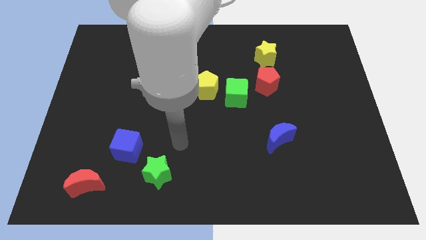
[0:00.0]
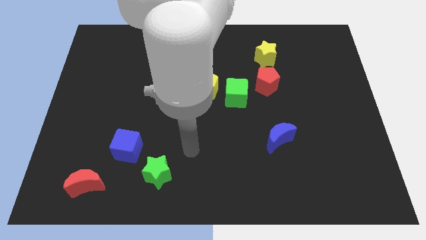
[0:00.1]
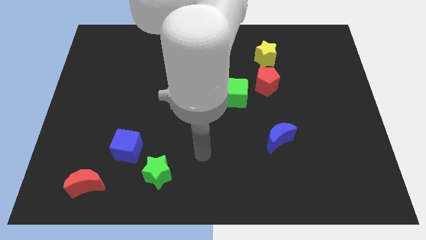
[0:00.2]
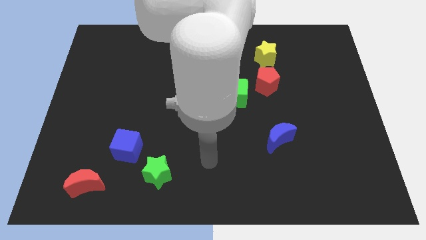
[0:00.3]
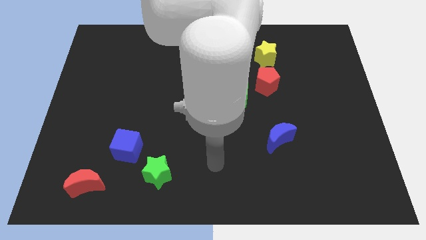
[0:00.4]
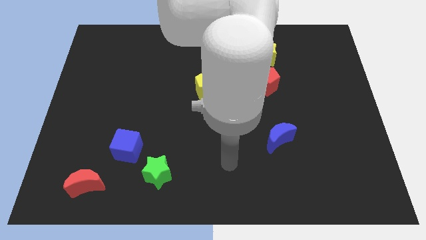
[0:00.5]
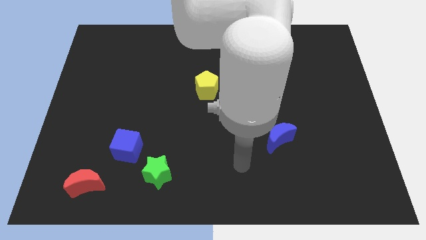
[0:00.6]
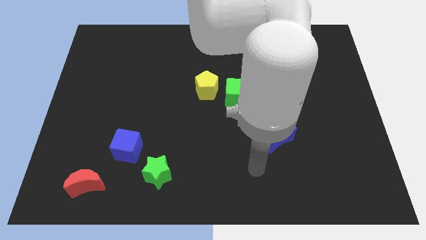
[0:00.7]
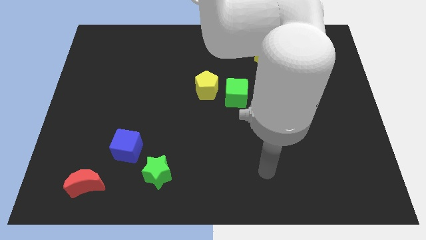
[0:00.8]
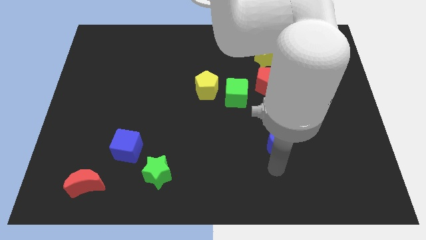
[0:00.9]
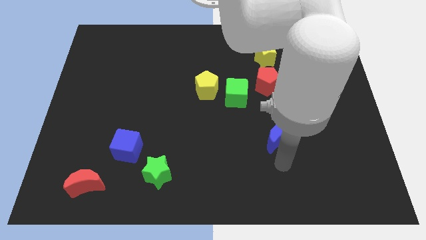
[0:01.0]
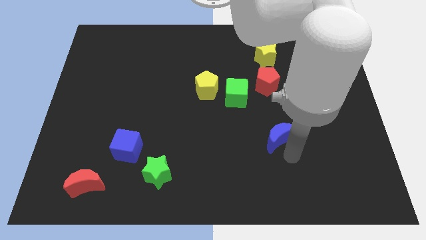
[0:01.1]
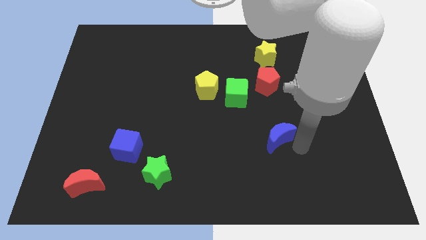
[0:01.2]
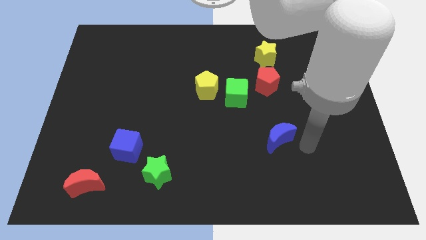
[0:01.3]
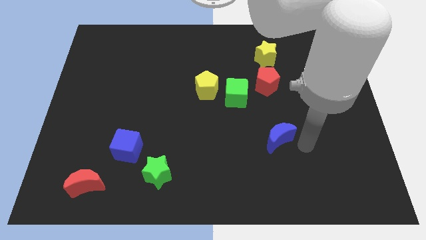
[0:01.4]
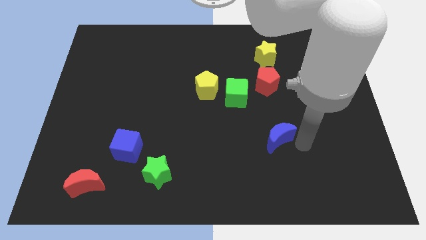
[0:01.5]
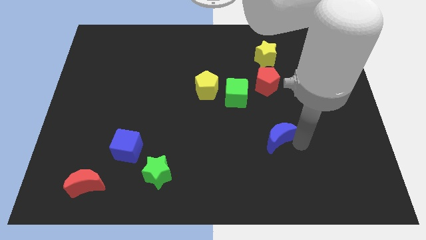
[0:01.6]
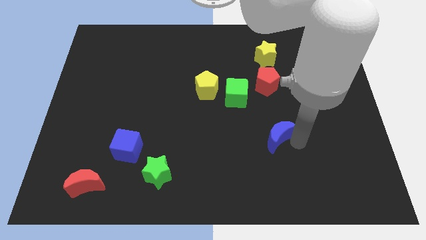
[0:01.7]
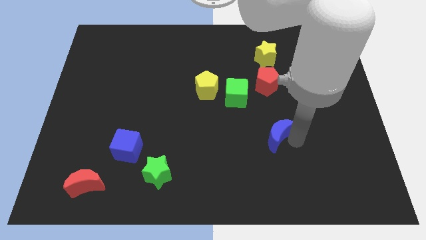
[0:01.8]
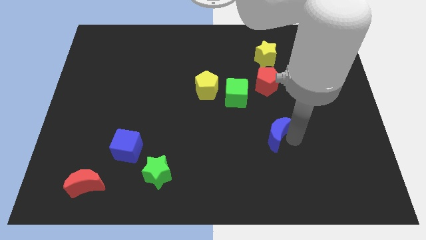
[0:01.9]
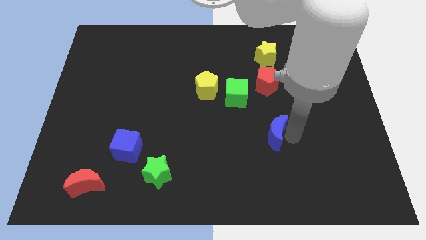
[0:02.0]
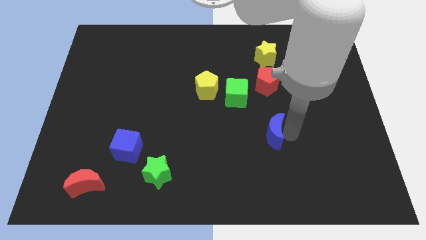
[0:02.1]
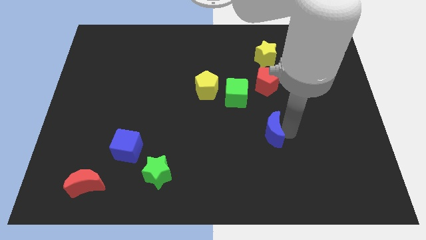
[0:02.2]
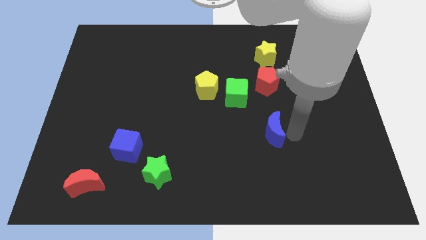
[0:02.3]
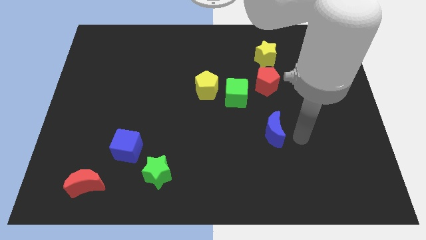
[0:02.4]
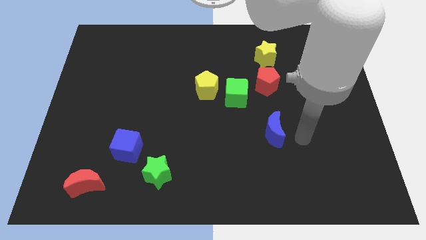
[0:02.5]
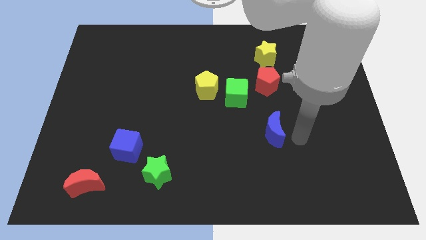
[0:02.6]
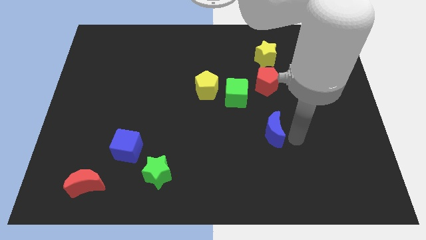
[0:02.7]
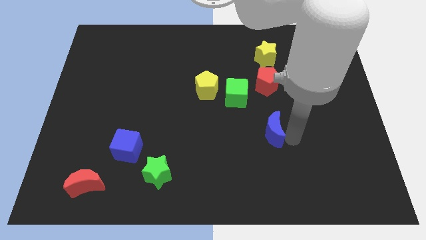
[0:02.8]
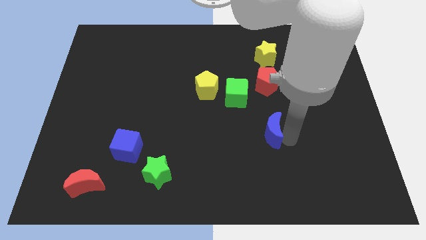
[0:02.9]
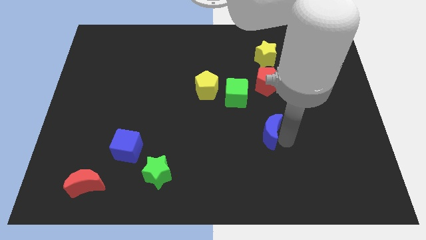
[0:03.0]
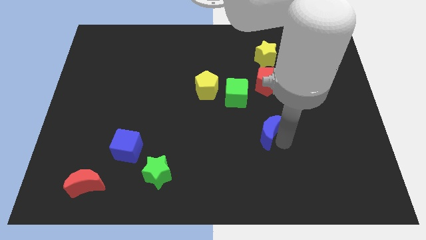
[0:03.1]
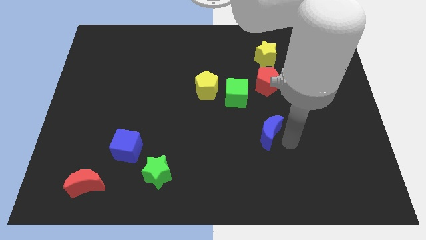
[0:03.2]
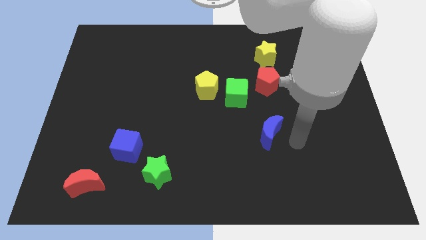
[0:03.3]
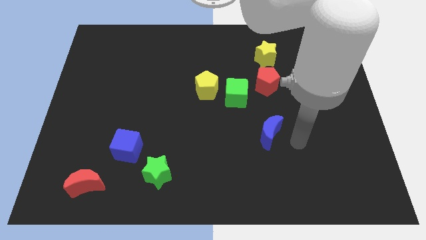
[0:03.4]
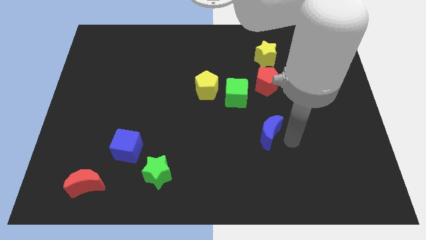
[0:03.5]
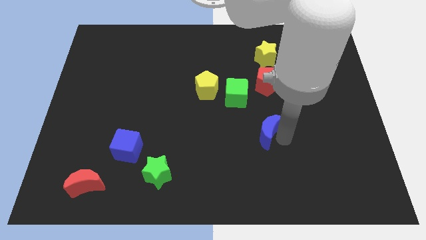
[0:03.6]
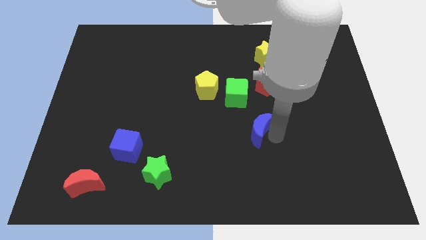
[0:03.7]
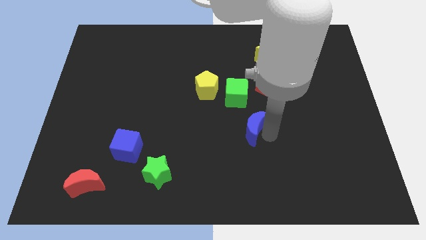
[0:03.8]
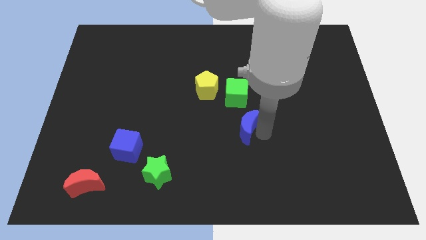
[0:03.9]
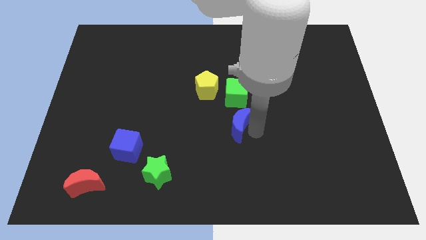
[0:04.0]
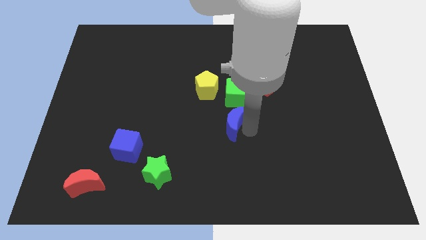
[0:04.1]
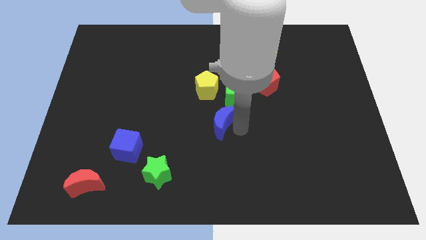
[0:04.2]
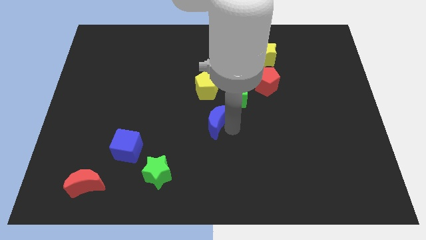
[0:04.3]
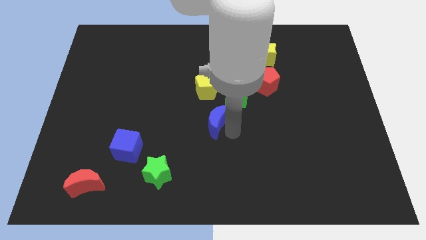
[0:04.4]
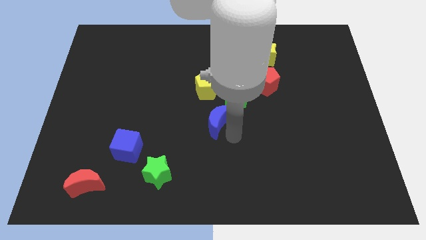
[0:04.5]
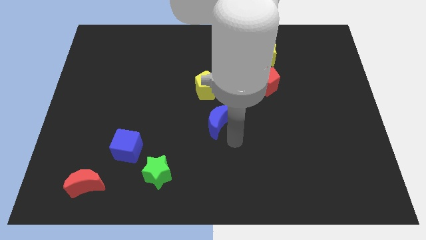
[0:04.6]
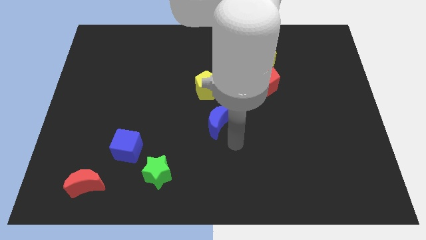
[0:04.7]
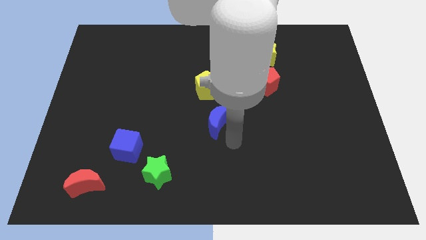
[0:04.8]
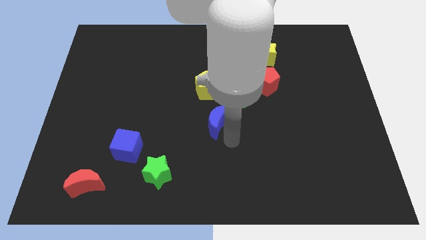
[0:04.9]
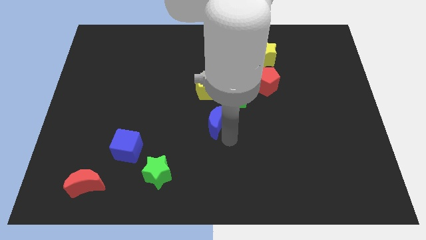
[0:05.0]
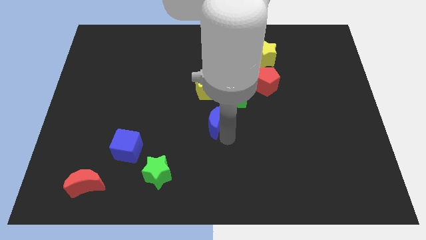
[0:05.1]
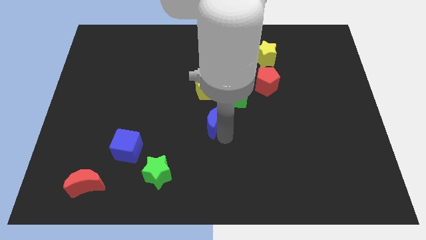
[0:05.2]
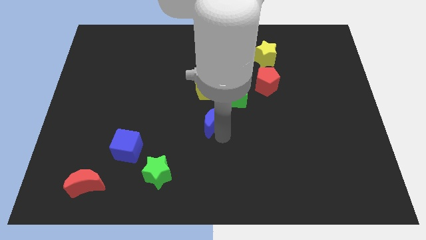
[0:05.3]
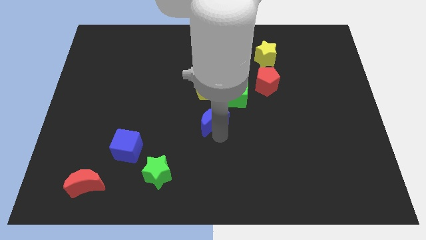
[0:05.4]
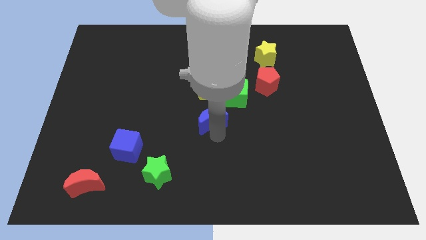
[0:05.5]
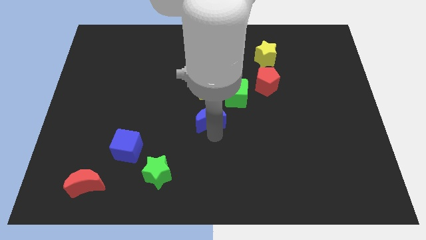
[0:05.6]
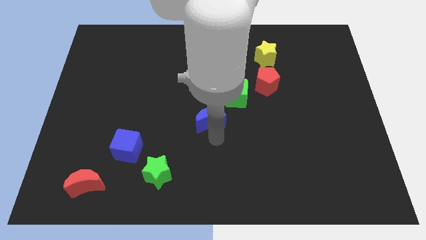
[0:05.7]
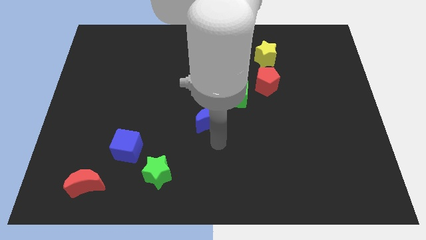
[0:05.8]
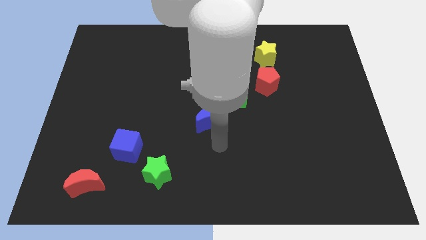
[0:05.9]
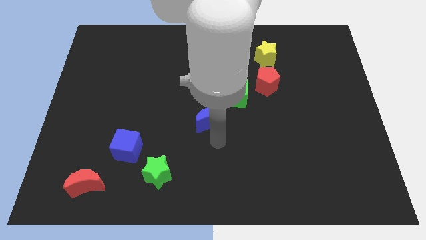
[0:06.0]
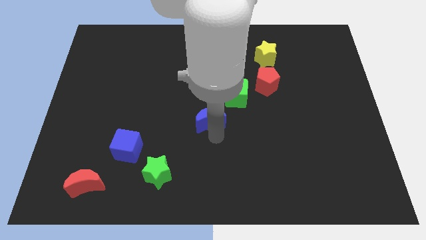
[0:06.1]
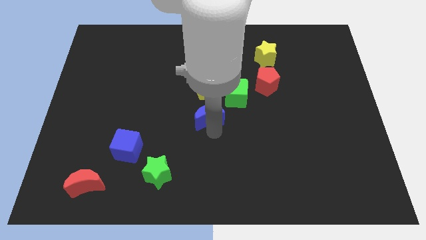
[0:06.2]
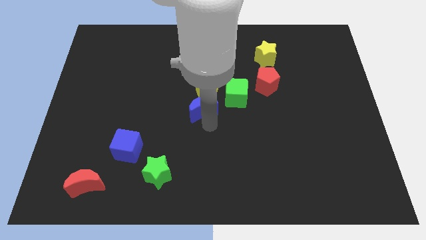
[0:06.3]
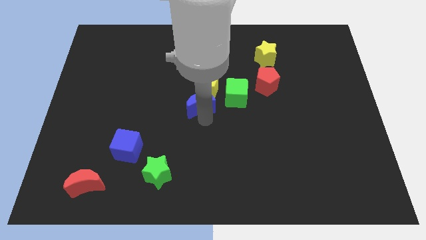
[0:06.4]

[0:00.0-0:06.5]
put the blue moon next to the yellow pentagon

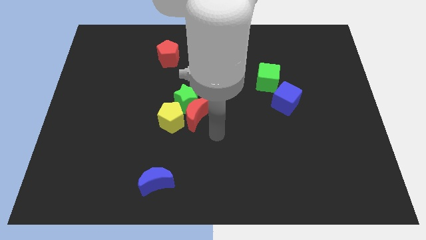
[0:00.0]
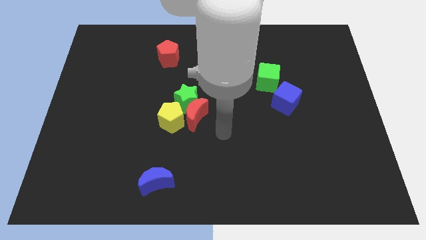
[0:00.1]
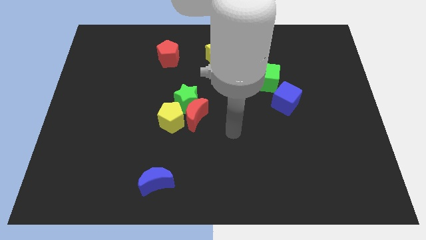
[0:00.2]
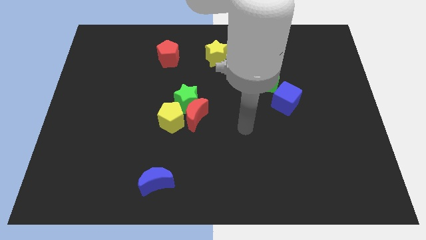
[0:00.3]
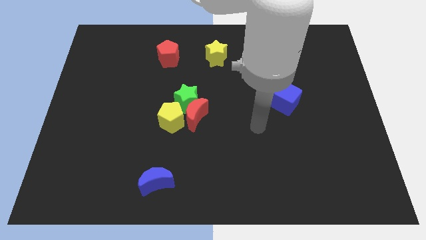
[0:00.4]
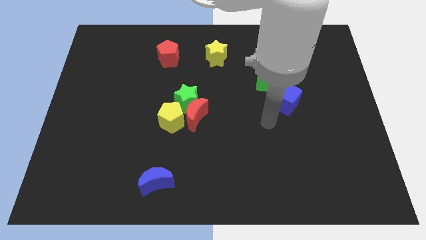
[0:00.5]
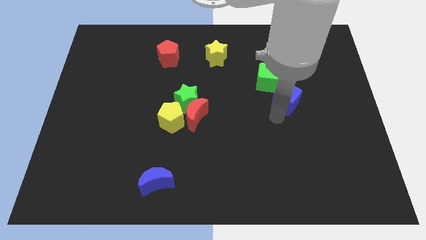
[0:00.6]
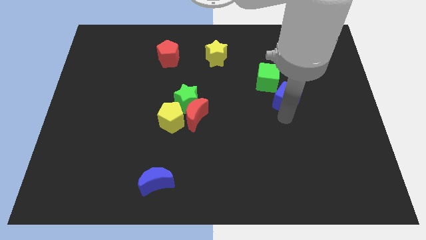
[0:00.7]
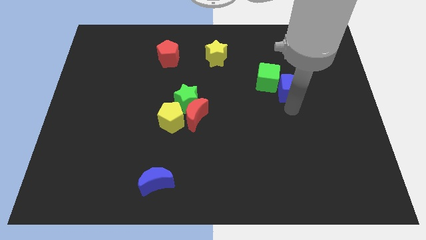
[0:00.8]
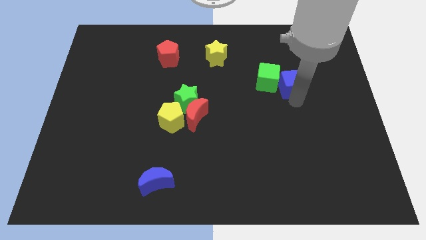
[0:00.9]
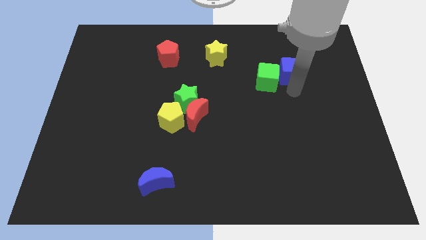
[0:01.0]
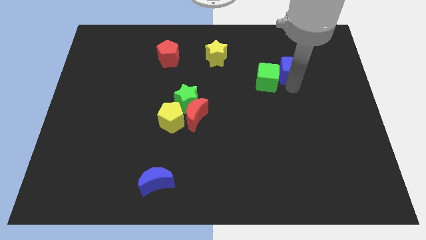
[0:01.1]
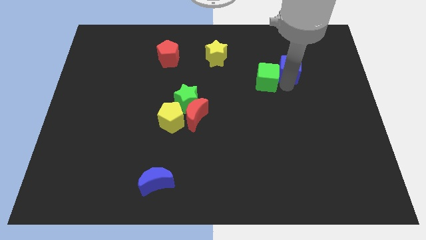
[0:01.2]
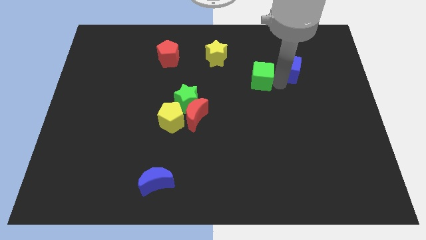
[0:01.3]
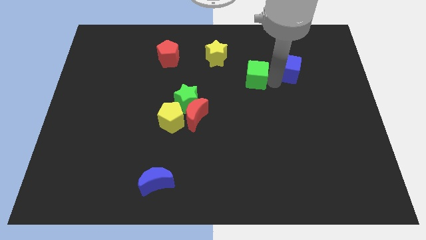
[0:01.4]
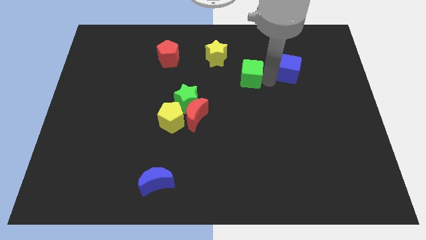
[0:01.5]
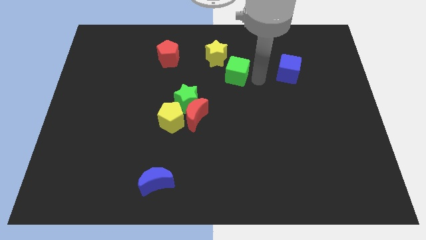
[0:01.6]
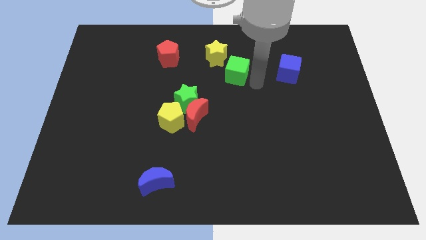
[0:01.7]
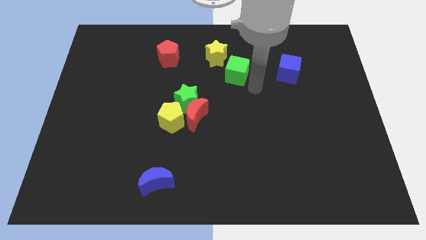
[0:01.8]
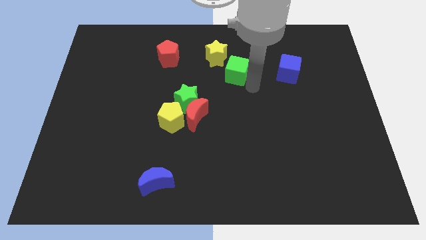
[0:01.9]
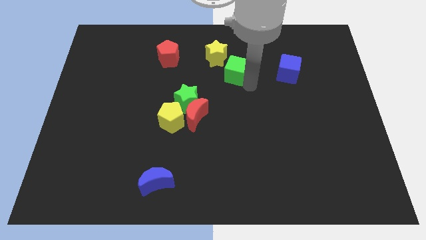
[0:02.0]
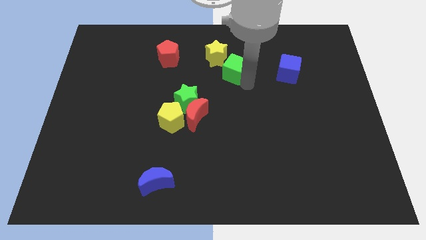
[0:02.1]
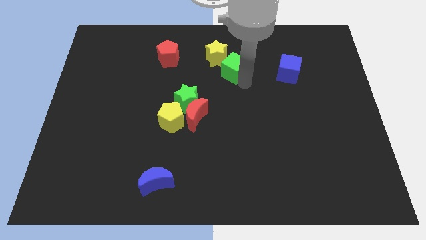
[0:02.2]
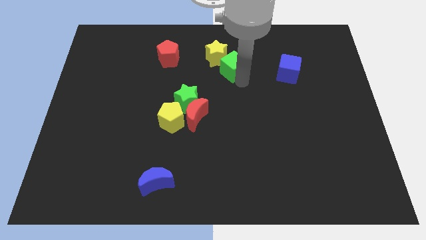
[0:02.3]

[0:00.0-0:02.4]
move the green cube towards the yellow star
